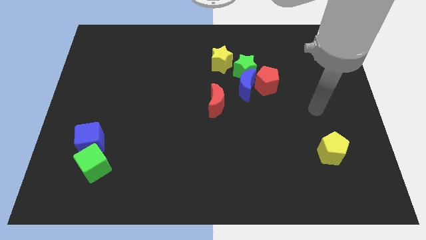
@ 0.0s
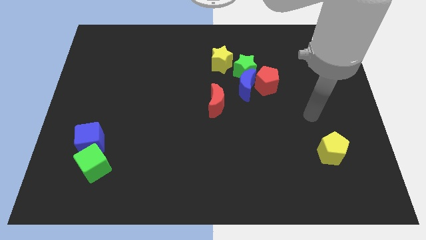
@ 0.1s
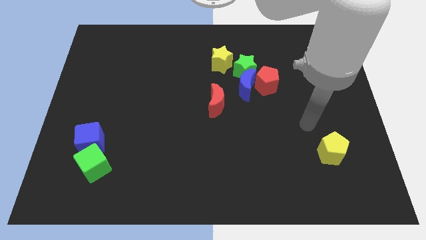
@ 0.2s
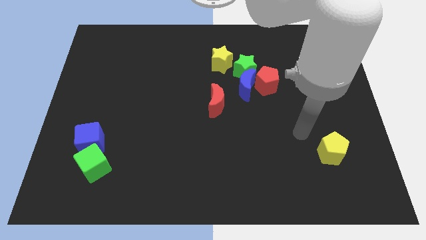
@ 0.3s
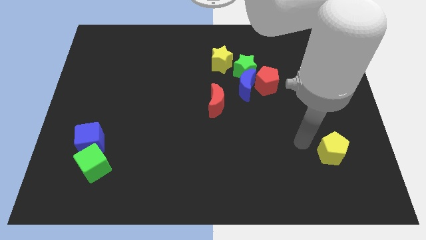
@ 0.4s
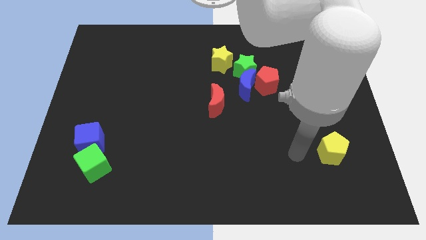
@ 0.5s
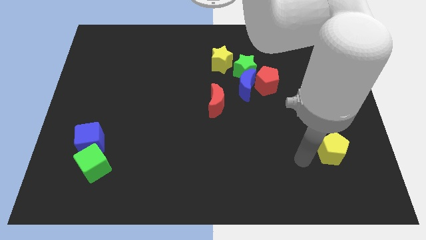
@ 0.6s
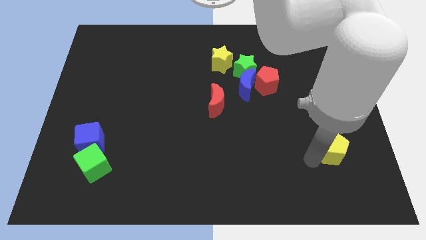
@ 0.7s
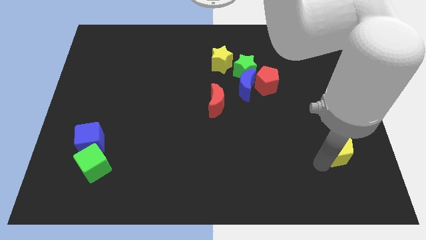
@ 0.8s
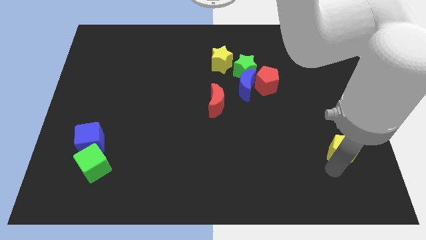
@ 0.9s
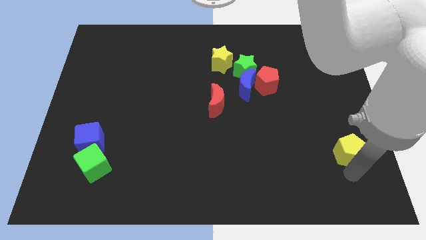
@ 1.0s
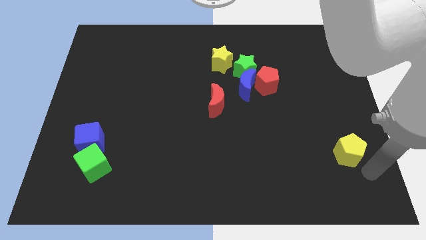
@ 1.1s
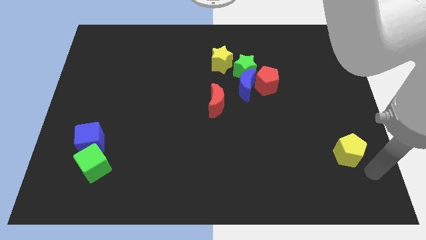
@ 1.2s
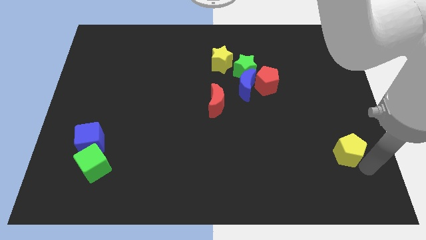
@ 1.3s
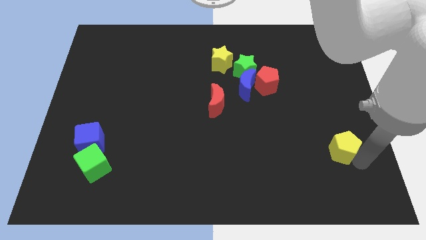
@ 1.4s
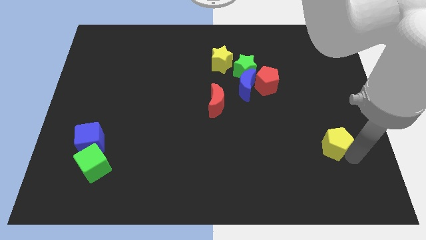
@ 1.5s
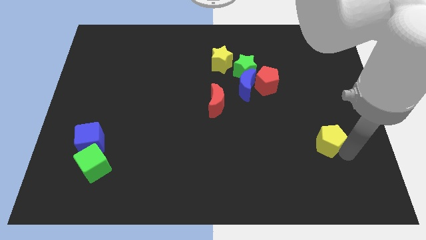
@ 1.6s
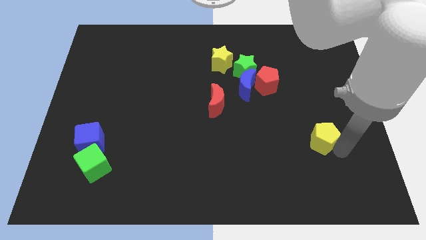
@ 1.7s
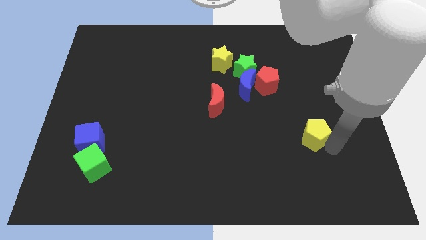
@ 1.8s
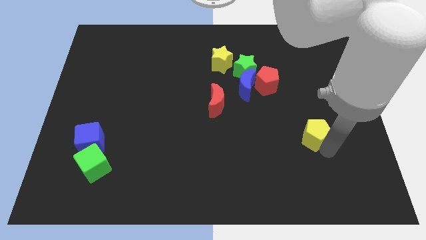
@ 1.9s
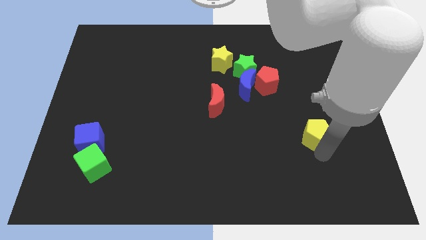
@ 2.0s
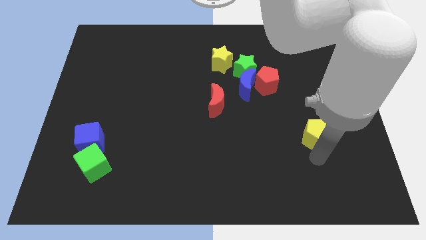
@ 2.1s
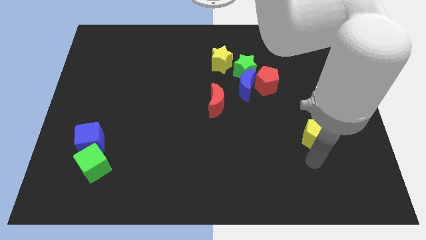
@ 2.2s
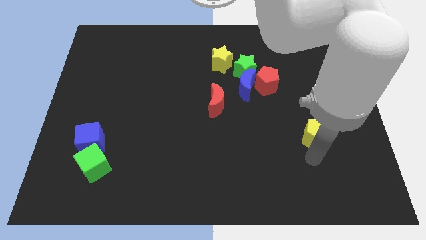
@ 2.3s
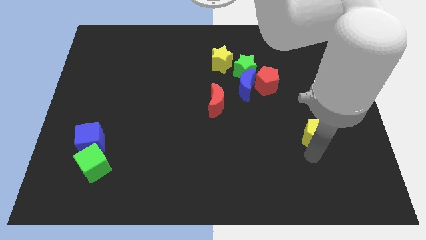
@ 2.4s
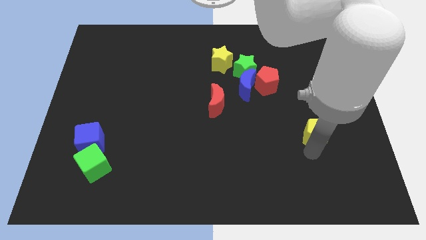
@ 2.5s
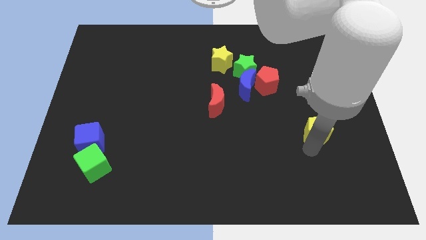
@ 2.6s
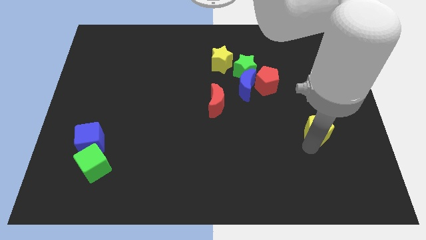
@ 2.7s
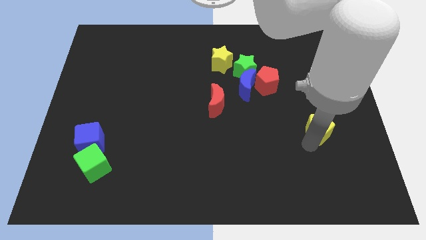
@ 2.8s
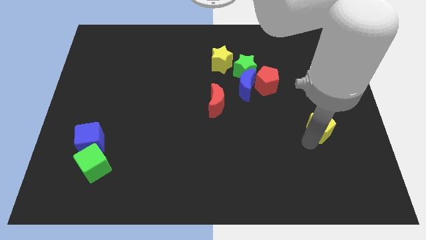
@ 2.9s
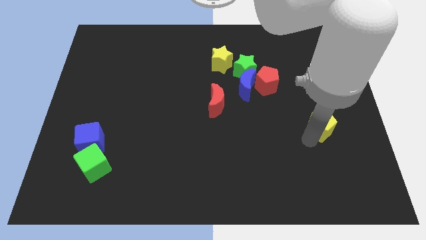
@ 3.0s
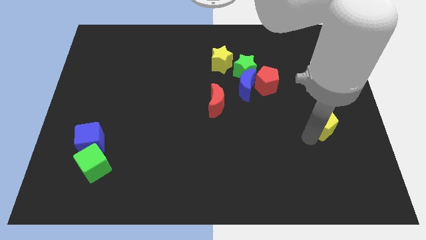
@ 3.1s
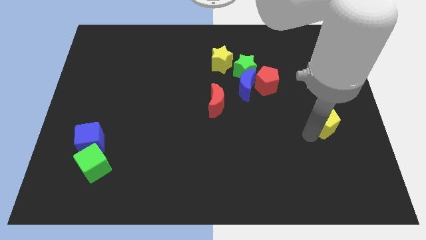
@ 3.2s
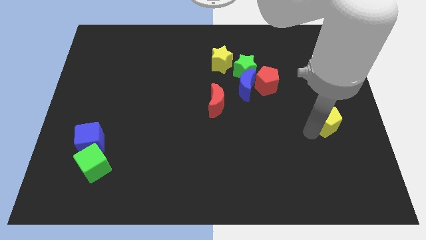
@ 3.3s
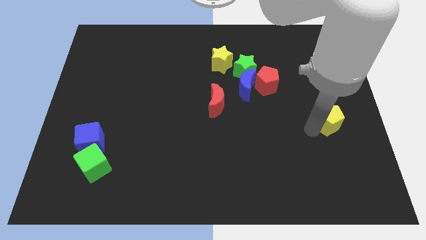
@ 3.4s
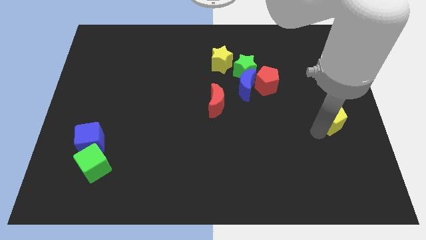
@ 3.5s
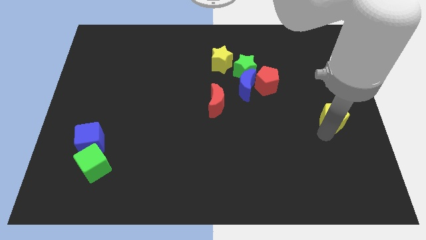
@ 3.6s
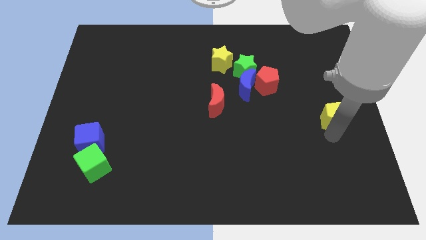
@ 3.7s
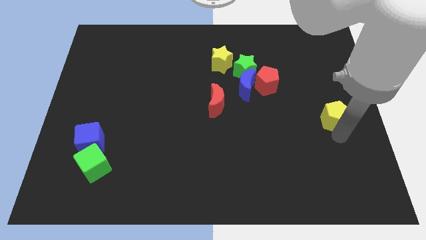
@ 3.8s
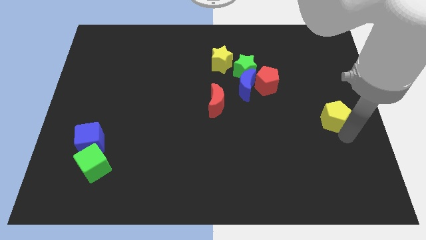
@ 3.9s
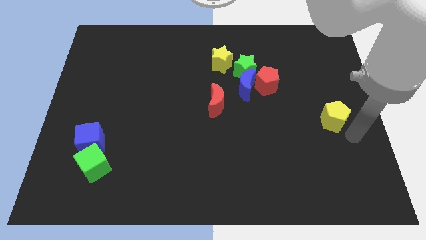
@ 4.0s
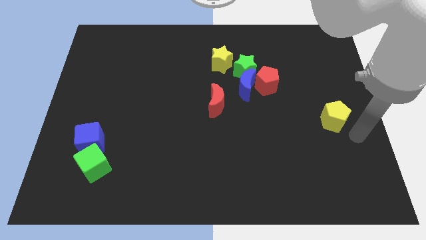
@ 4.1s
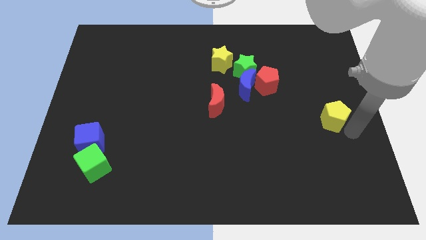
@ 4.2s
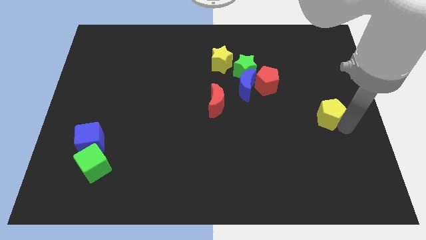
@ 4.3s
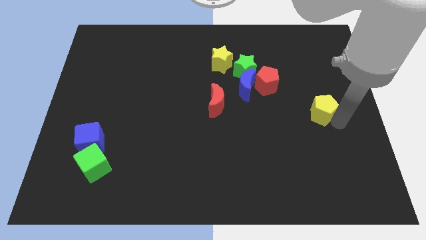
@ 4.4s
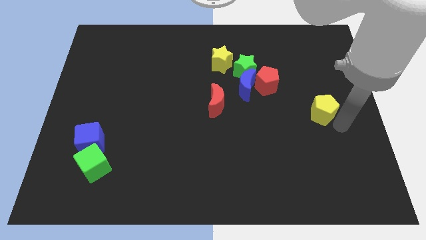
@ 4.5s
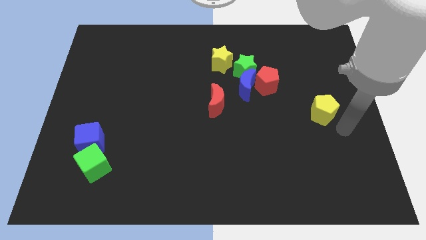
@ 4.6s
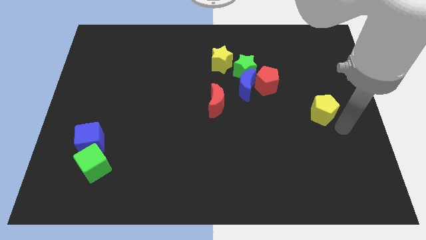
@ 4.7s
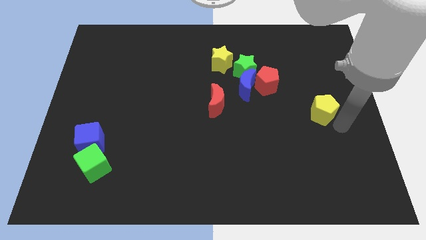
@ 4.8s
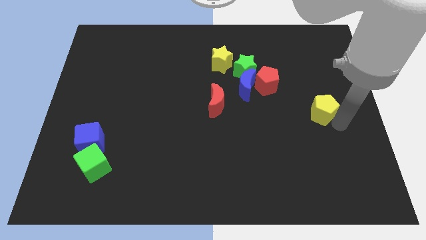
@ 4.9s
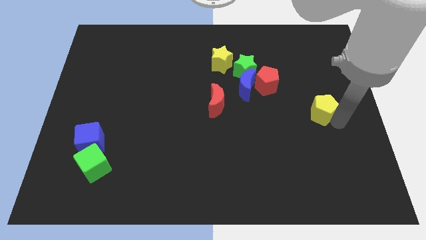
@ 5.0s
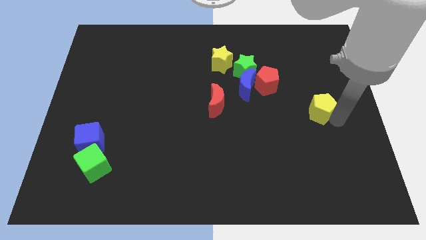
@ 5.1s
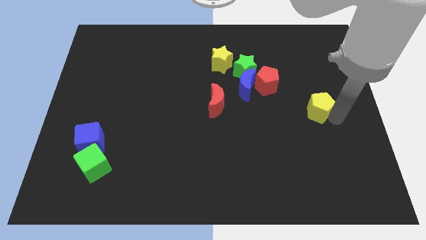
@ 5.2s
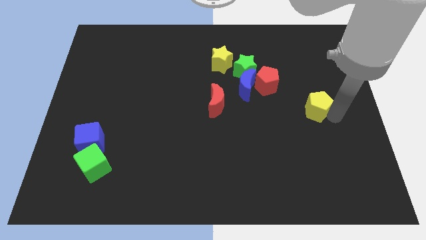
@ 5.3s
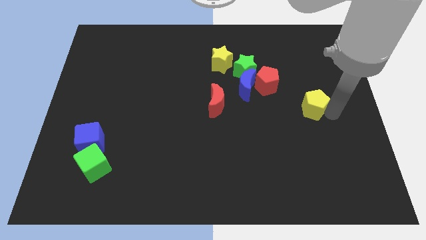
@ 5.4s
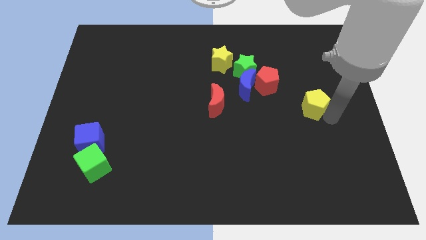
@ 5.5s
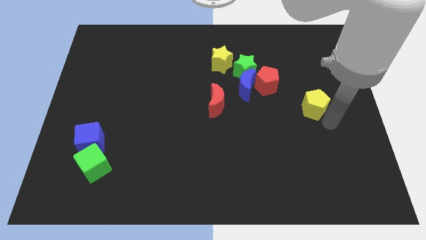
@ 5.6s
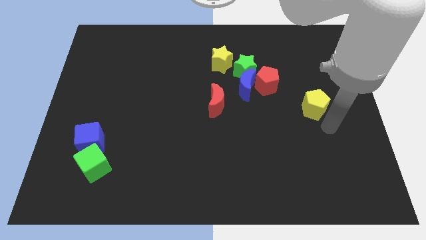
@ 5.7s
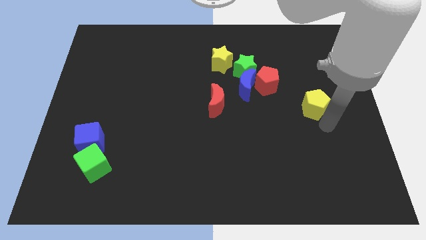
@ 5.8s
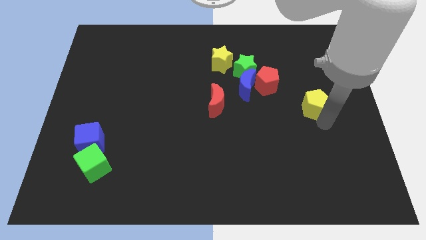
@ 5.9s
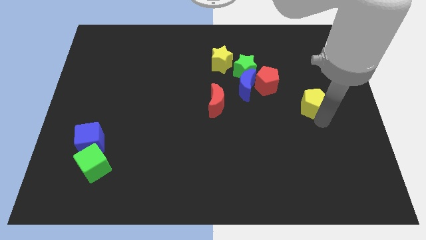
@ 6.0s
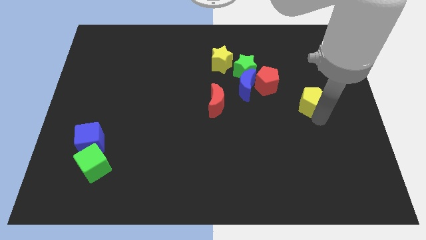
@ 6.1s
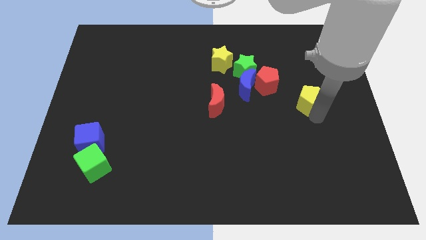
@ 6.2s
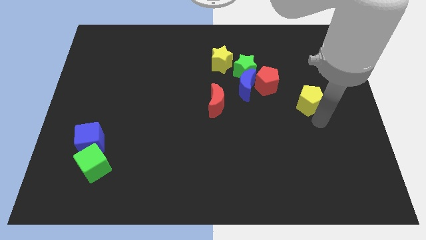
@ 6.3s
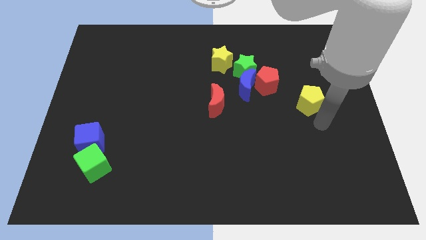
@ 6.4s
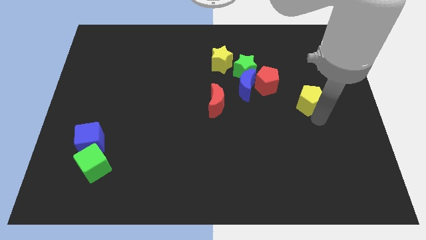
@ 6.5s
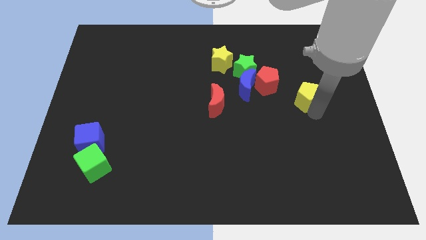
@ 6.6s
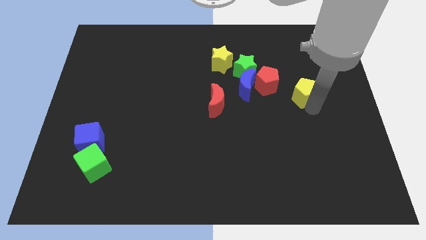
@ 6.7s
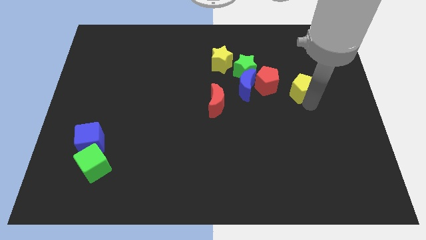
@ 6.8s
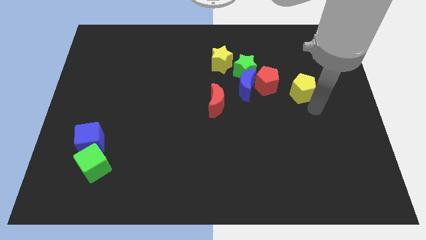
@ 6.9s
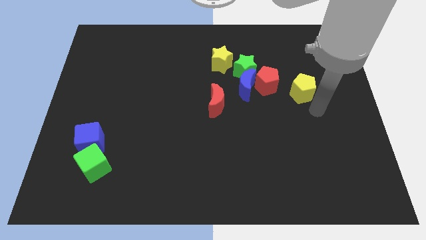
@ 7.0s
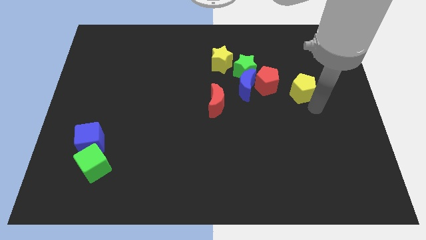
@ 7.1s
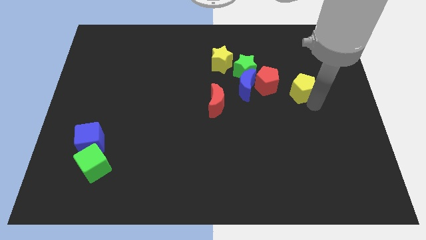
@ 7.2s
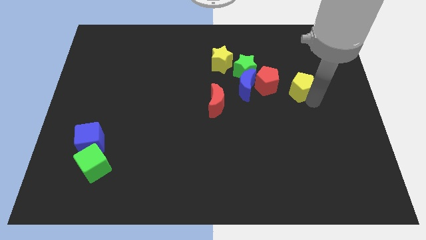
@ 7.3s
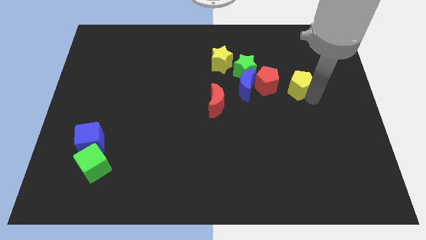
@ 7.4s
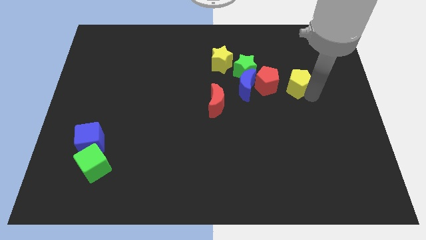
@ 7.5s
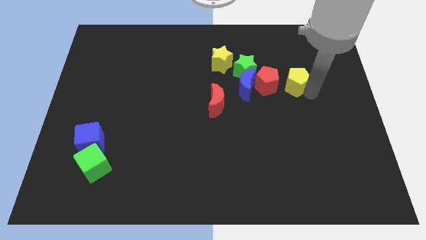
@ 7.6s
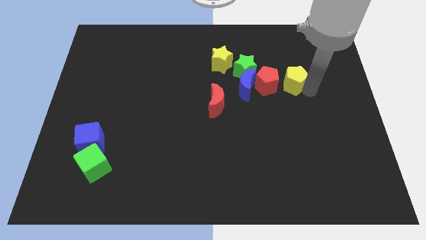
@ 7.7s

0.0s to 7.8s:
slide the yellow pentagon to the top right of the red pentagon

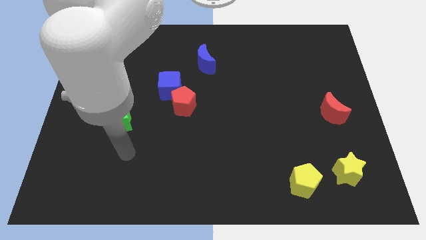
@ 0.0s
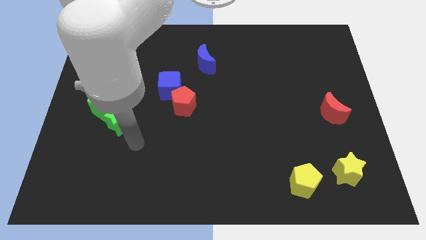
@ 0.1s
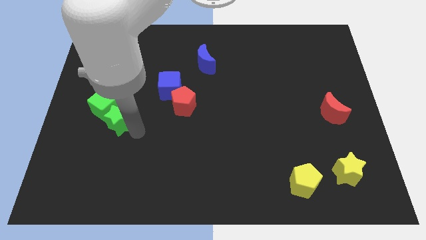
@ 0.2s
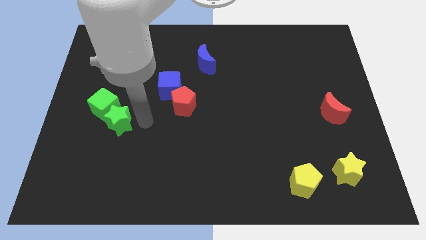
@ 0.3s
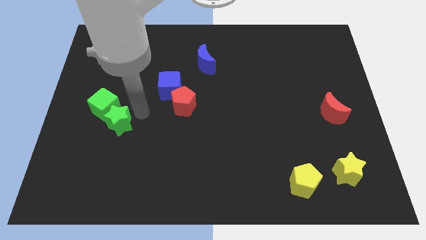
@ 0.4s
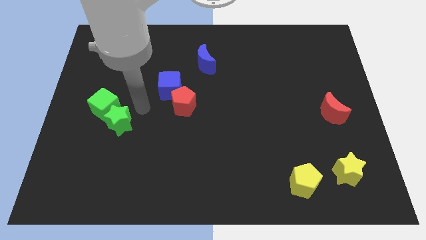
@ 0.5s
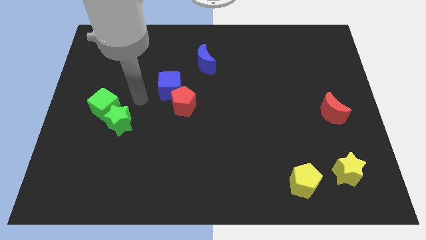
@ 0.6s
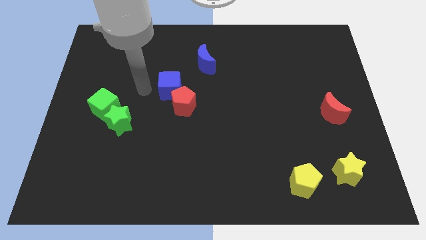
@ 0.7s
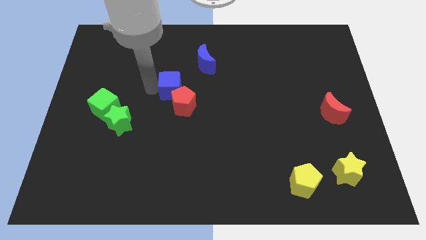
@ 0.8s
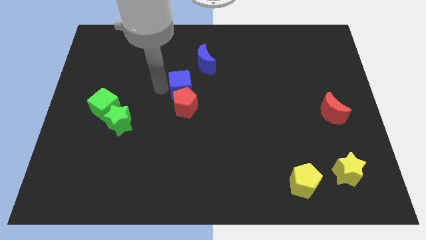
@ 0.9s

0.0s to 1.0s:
put the blue cube to the top right of the red pentagon
